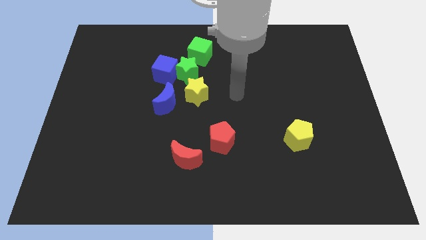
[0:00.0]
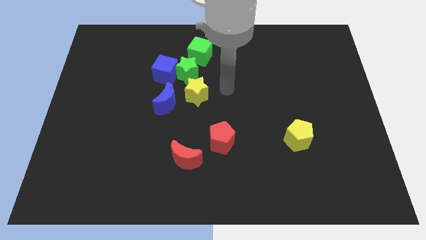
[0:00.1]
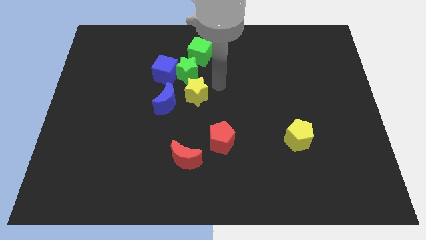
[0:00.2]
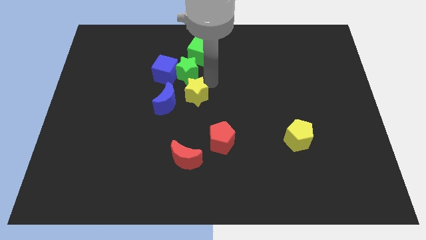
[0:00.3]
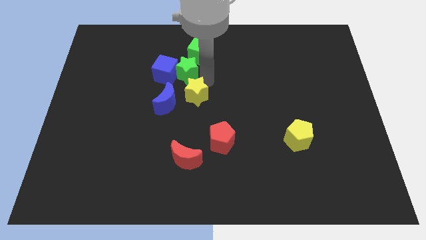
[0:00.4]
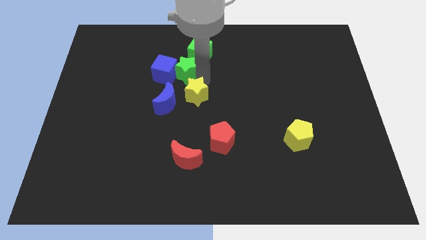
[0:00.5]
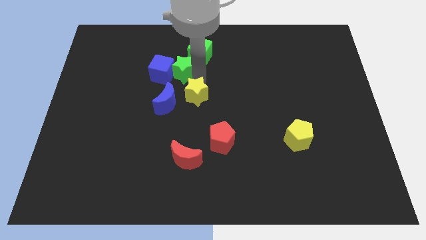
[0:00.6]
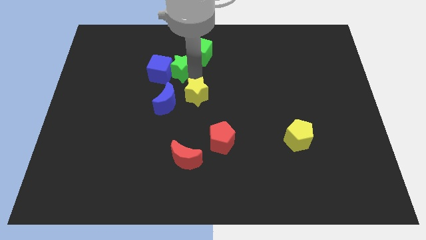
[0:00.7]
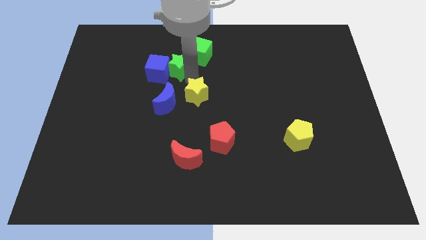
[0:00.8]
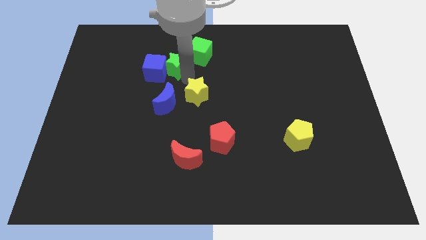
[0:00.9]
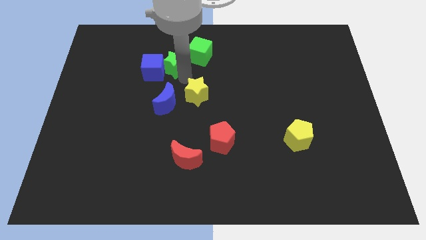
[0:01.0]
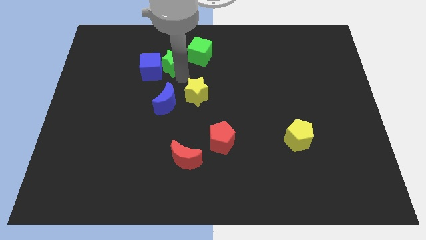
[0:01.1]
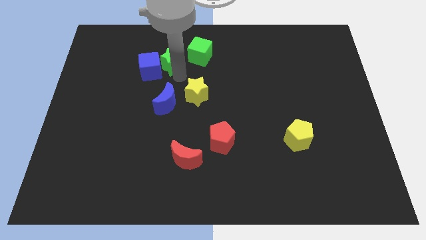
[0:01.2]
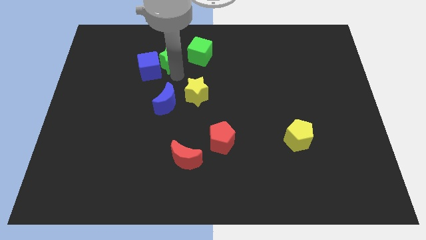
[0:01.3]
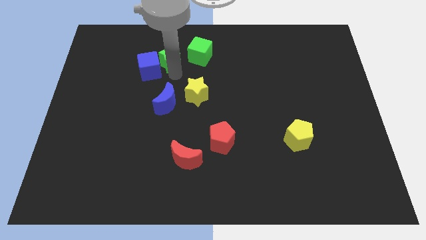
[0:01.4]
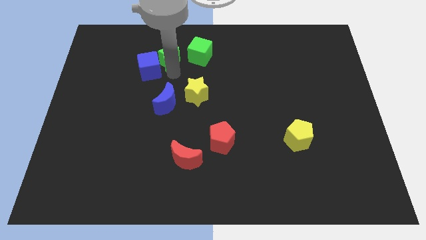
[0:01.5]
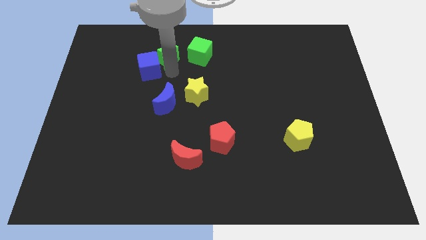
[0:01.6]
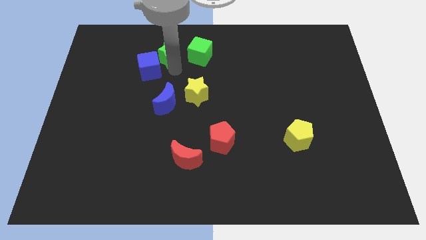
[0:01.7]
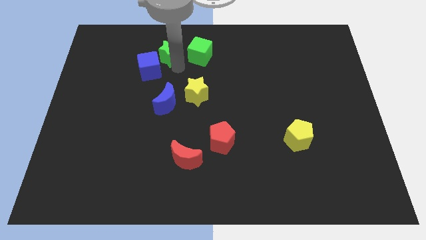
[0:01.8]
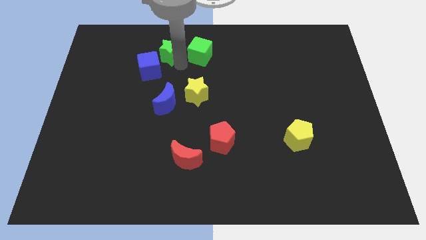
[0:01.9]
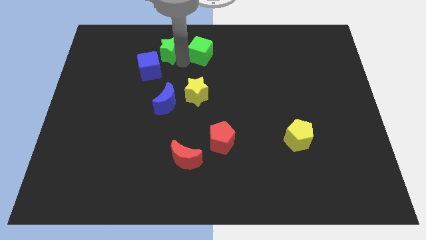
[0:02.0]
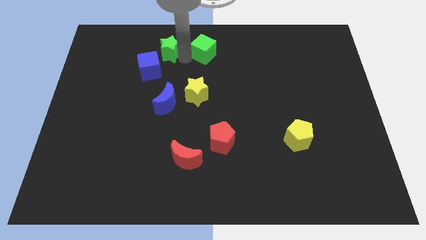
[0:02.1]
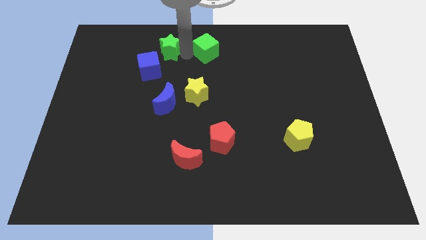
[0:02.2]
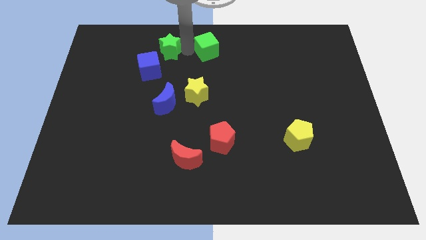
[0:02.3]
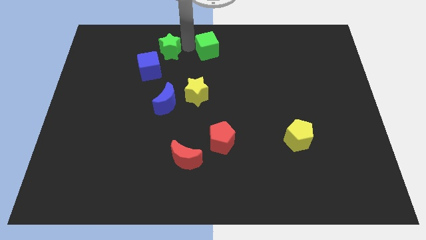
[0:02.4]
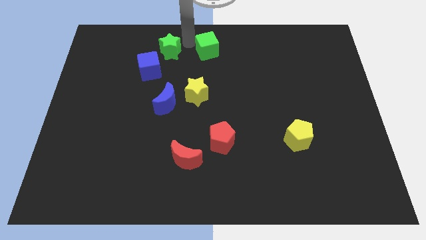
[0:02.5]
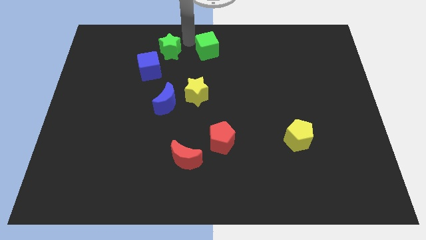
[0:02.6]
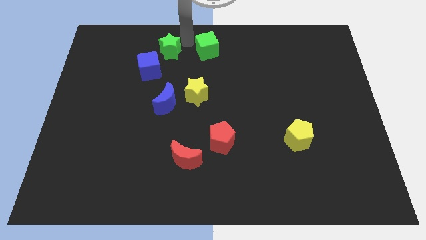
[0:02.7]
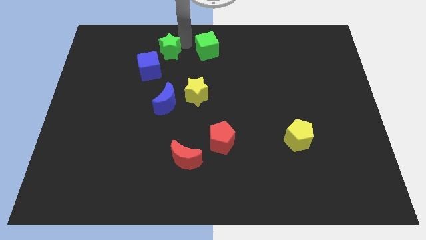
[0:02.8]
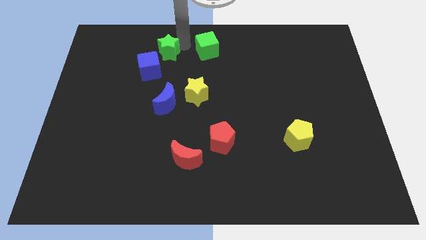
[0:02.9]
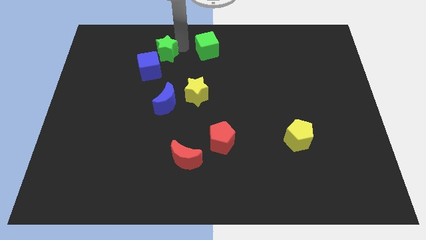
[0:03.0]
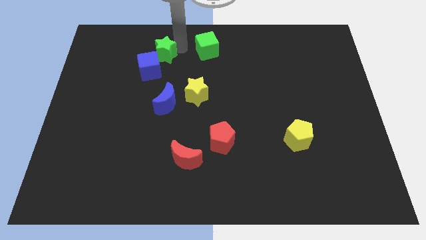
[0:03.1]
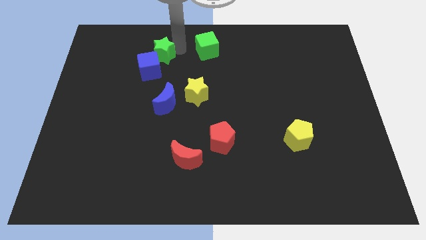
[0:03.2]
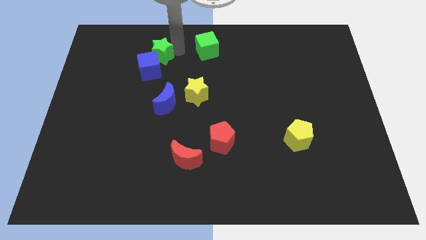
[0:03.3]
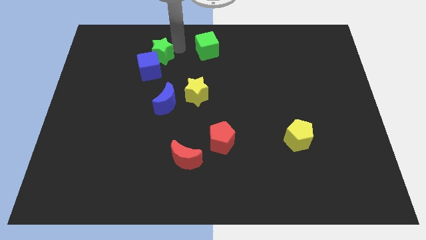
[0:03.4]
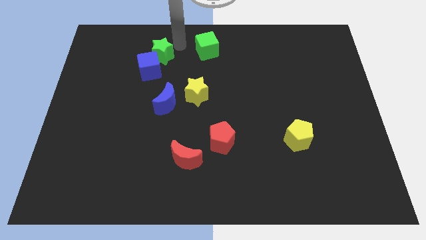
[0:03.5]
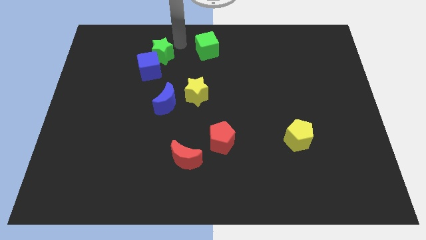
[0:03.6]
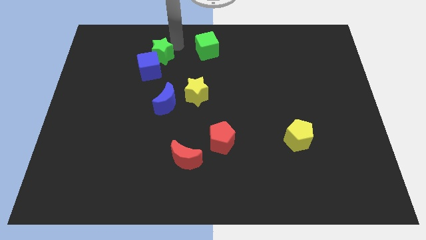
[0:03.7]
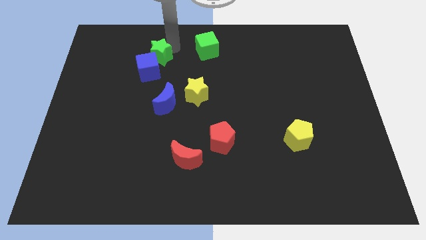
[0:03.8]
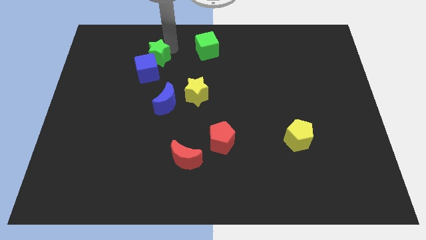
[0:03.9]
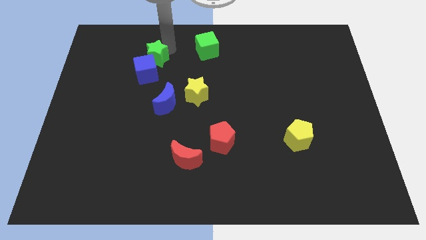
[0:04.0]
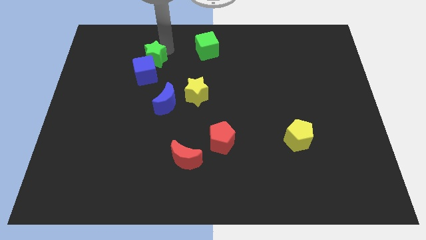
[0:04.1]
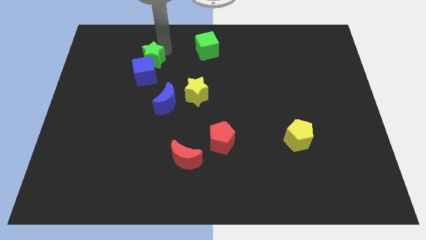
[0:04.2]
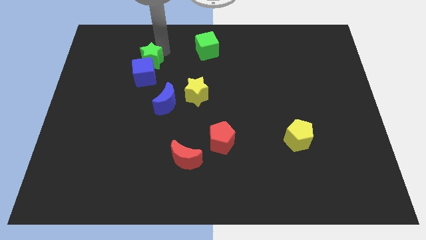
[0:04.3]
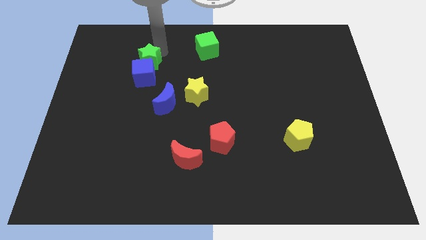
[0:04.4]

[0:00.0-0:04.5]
move the green star away from the clump

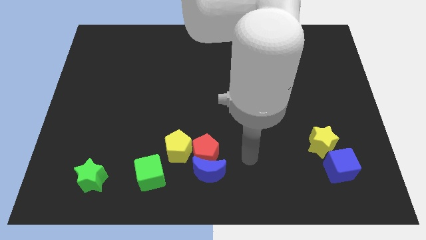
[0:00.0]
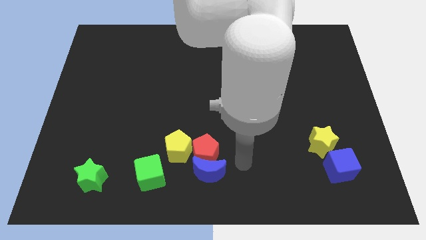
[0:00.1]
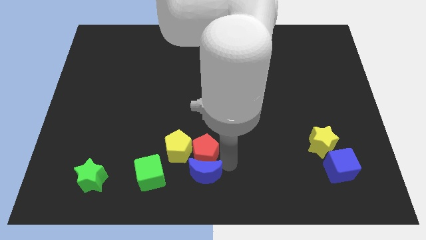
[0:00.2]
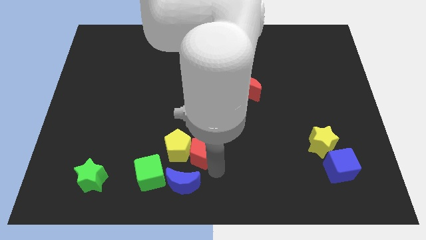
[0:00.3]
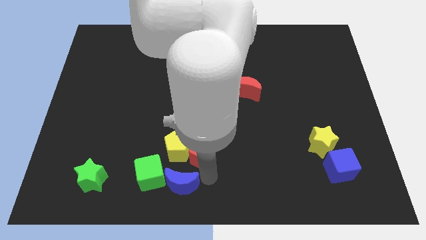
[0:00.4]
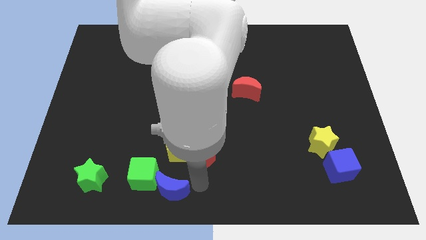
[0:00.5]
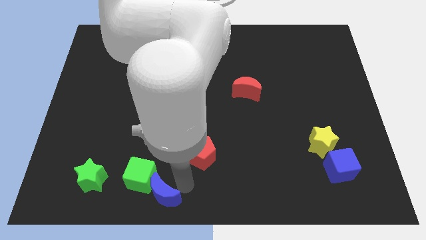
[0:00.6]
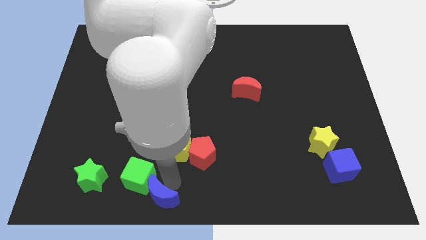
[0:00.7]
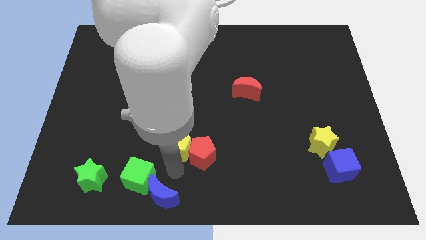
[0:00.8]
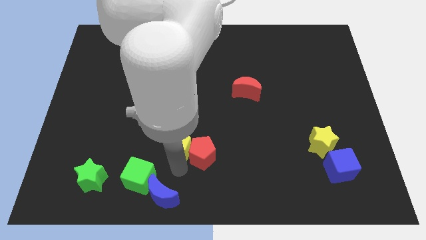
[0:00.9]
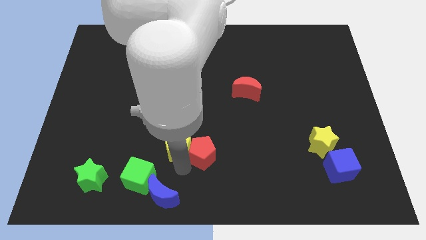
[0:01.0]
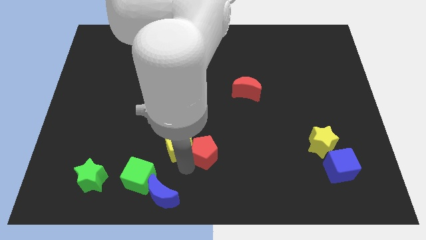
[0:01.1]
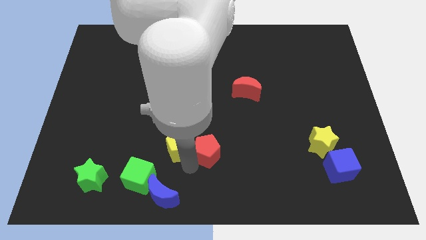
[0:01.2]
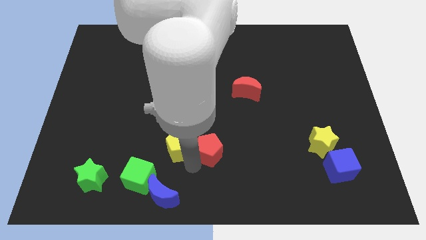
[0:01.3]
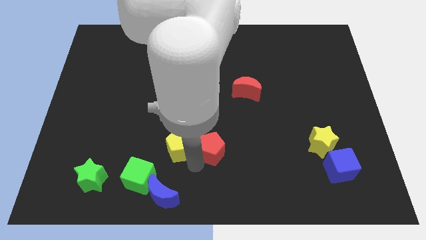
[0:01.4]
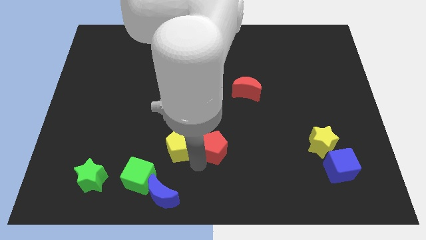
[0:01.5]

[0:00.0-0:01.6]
separate the red pentagon from the blue moon and yellow pentagon

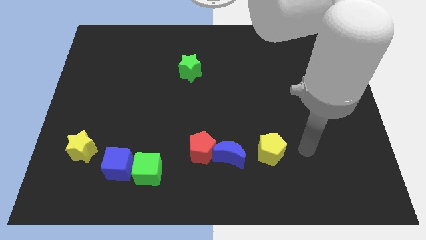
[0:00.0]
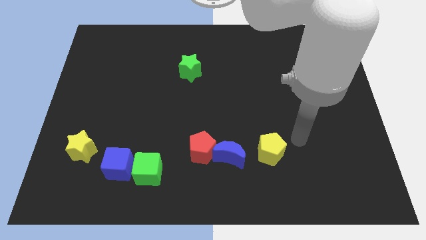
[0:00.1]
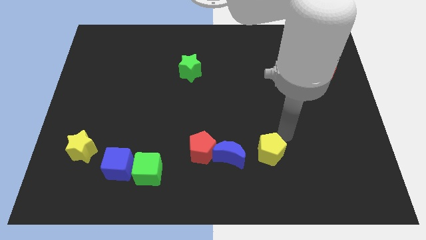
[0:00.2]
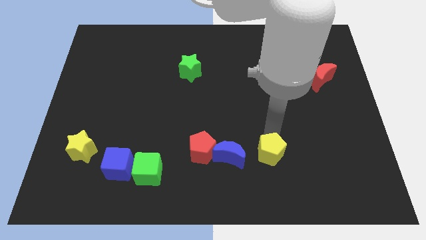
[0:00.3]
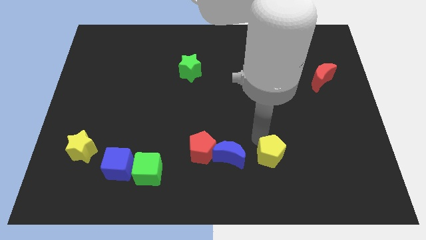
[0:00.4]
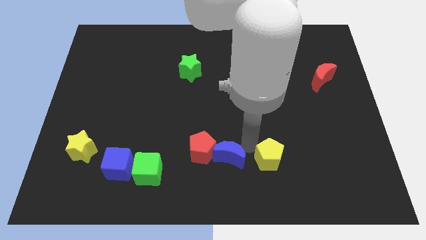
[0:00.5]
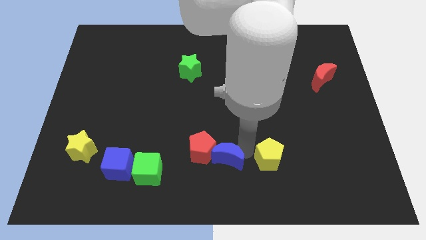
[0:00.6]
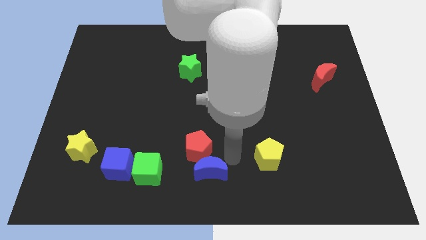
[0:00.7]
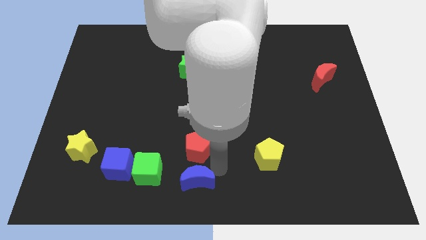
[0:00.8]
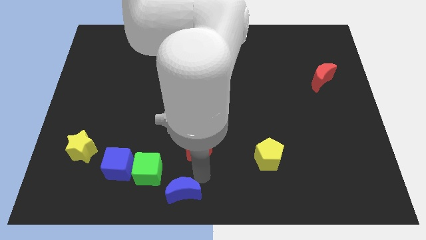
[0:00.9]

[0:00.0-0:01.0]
move the red pentagon away from the blue moon

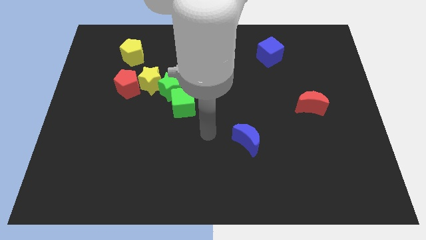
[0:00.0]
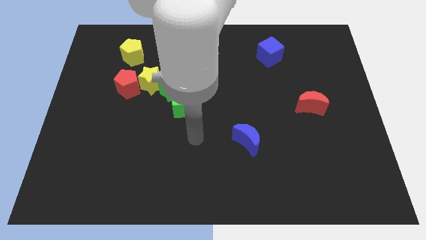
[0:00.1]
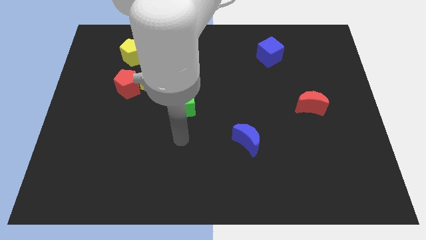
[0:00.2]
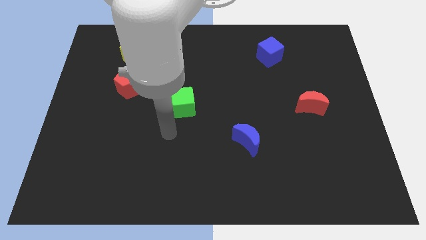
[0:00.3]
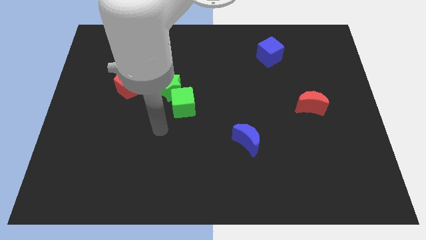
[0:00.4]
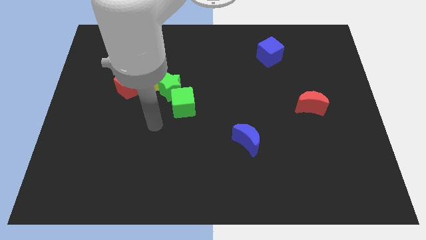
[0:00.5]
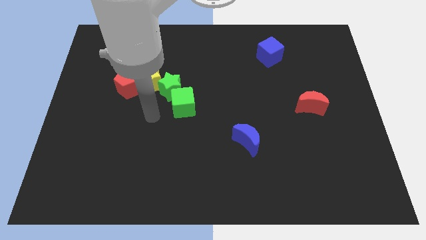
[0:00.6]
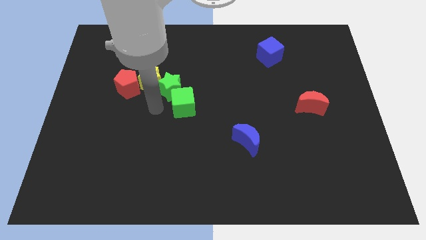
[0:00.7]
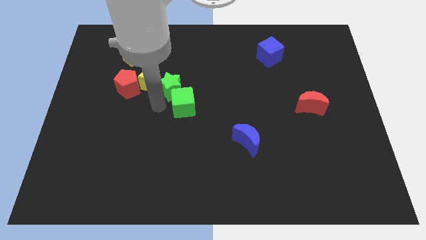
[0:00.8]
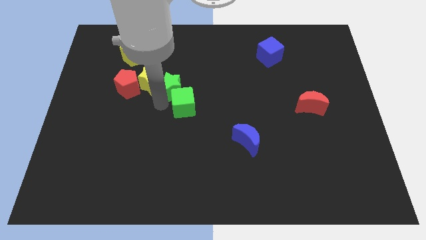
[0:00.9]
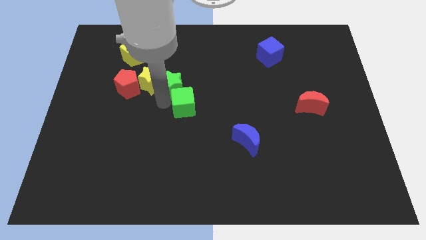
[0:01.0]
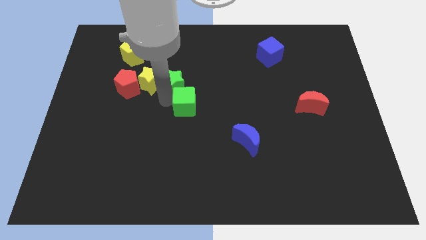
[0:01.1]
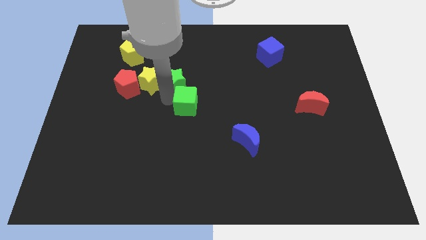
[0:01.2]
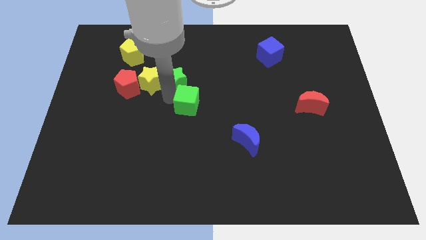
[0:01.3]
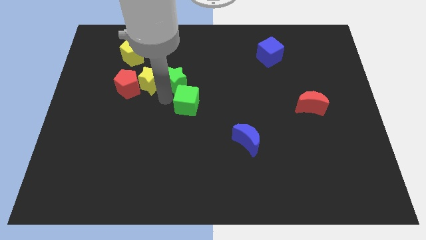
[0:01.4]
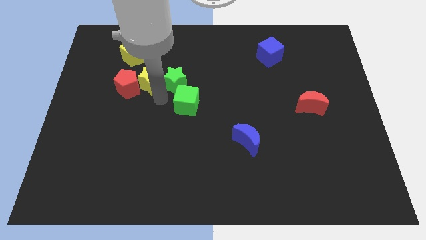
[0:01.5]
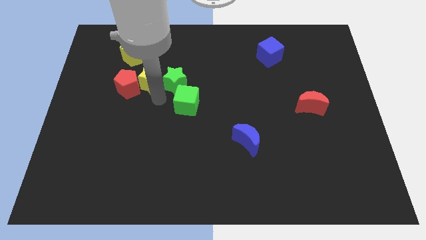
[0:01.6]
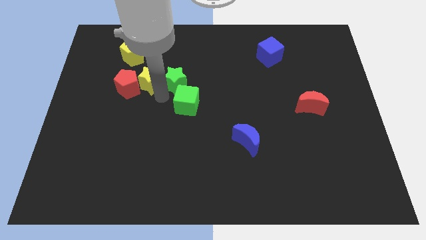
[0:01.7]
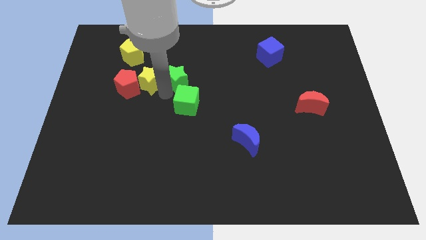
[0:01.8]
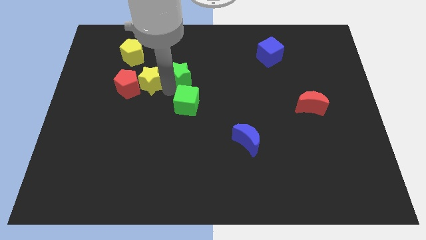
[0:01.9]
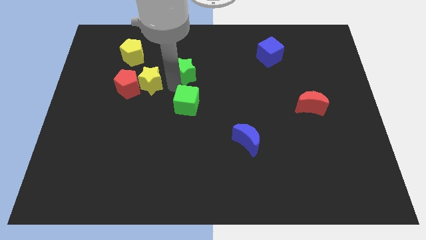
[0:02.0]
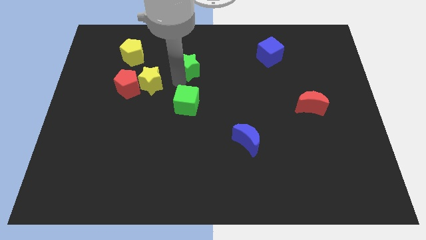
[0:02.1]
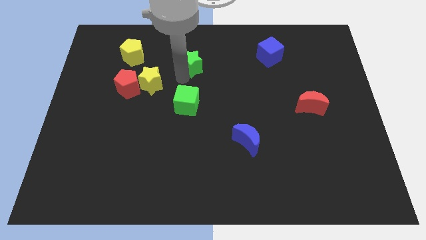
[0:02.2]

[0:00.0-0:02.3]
separate the green star from the yellow star and green cube
